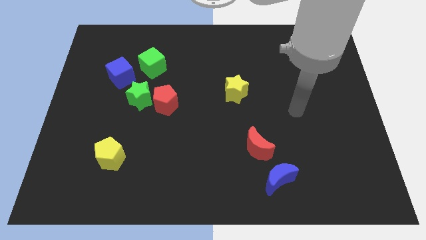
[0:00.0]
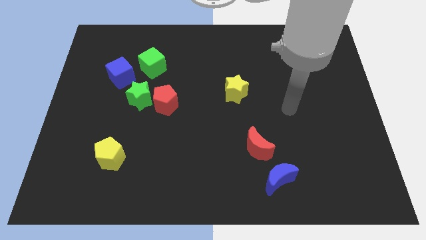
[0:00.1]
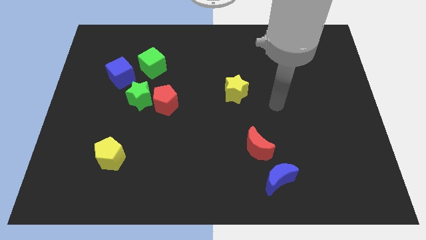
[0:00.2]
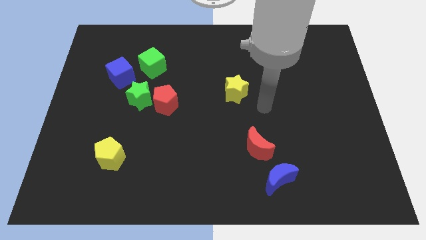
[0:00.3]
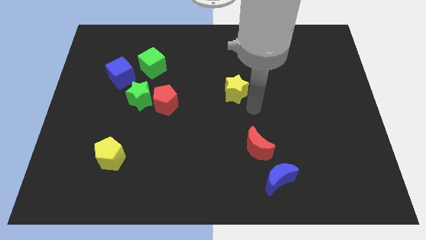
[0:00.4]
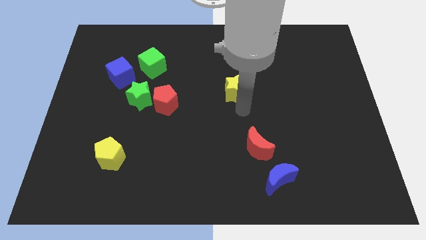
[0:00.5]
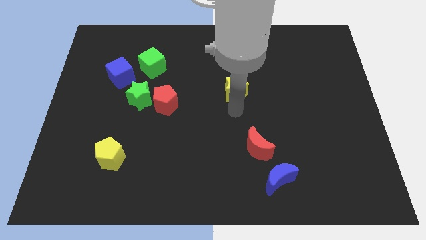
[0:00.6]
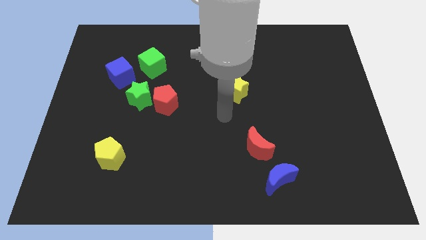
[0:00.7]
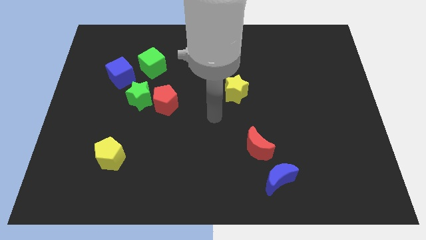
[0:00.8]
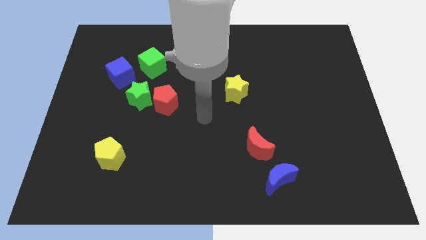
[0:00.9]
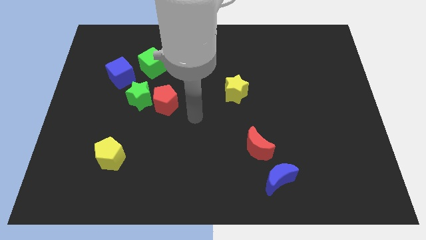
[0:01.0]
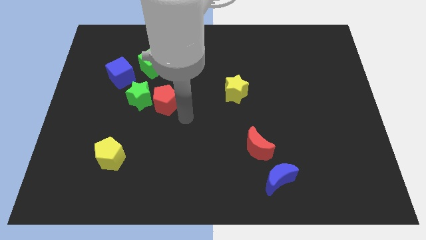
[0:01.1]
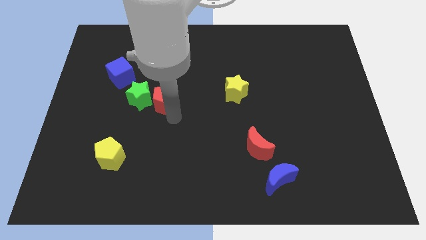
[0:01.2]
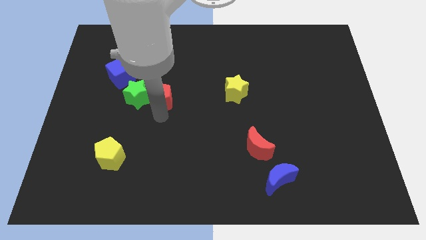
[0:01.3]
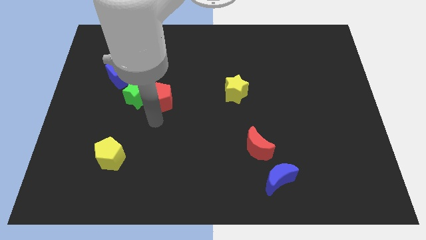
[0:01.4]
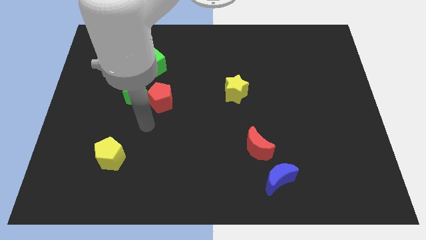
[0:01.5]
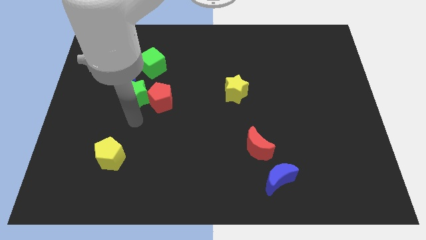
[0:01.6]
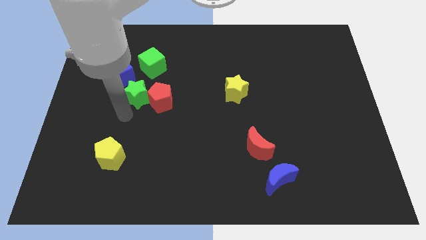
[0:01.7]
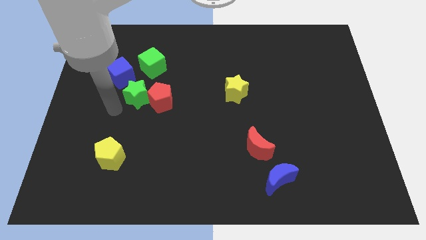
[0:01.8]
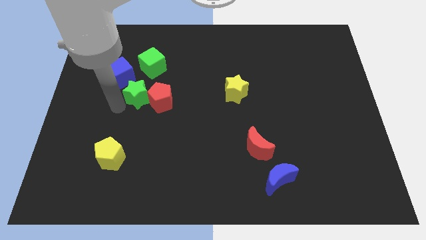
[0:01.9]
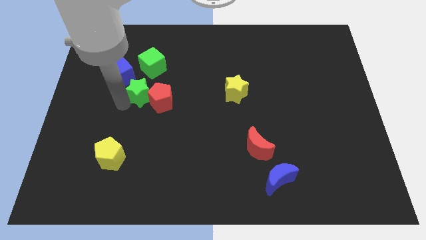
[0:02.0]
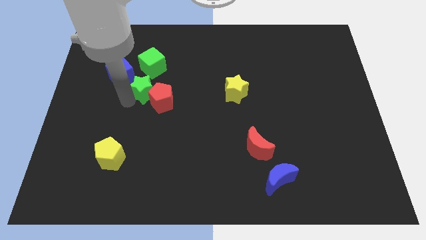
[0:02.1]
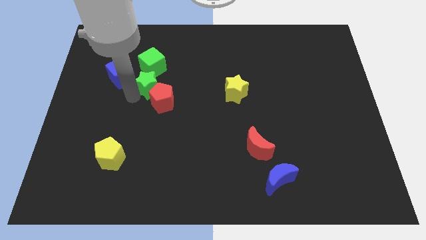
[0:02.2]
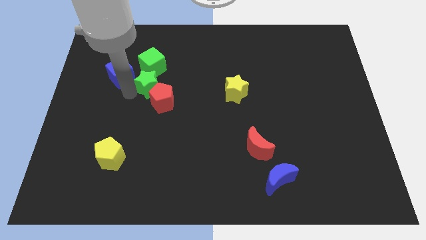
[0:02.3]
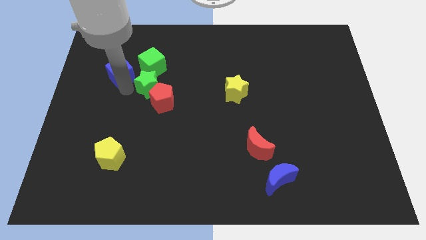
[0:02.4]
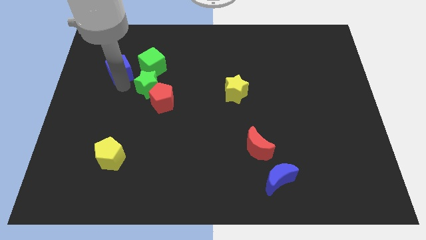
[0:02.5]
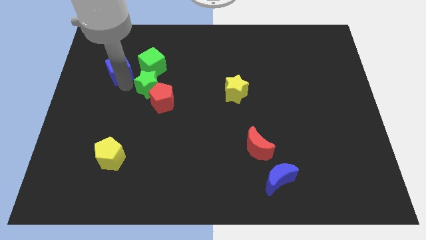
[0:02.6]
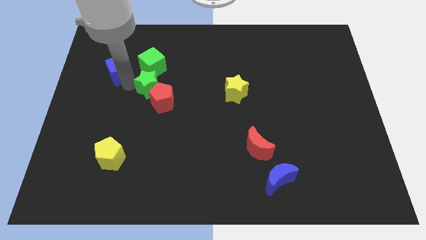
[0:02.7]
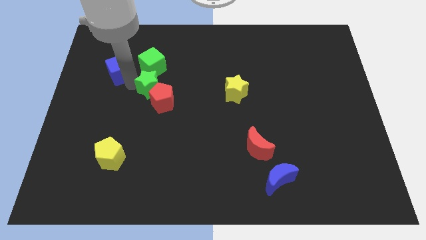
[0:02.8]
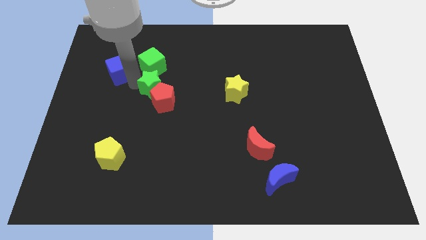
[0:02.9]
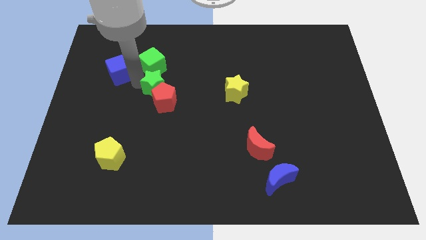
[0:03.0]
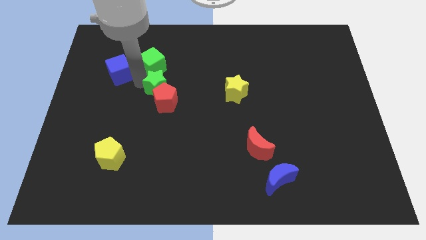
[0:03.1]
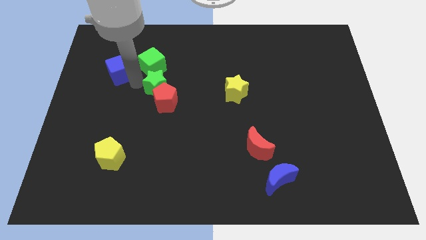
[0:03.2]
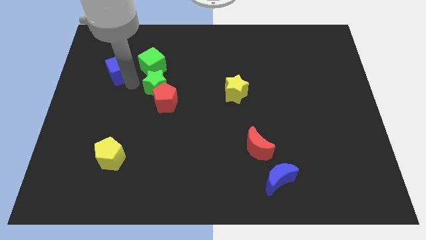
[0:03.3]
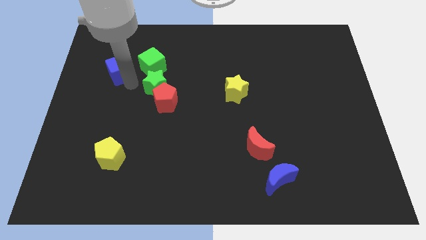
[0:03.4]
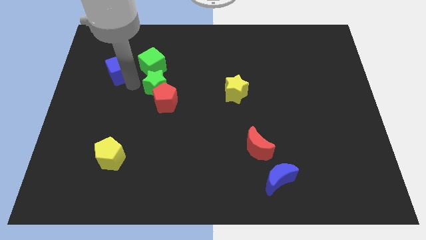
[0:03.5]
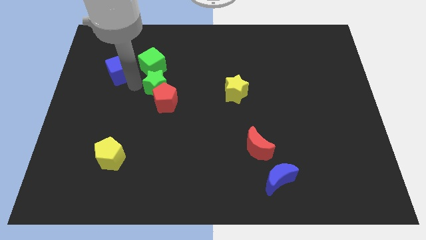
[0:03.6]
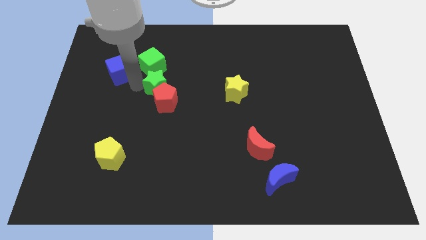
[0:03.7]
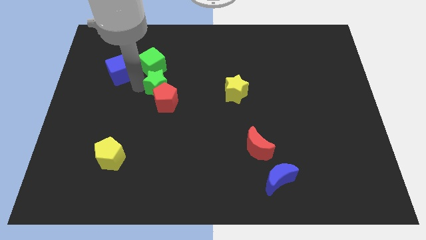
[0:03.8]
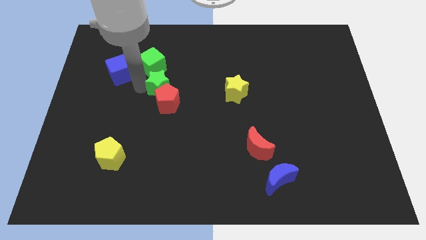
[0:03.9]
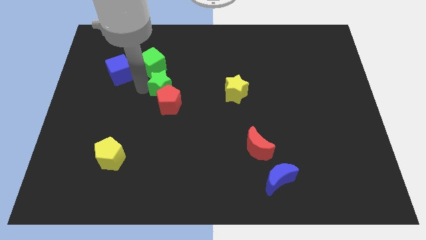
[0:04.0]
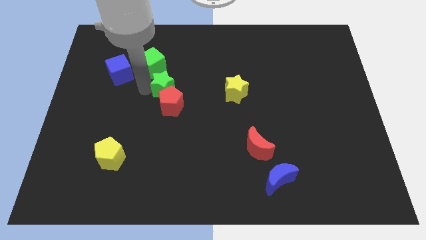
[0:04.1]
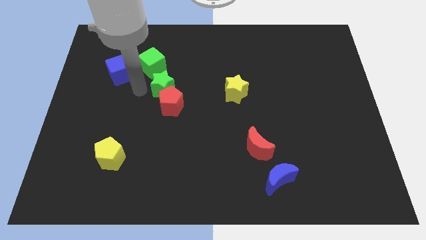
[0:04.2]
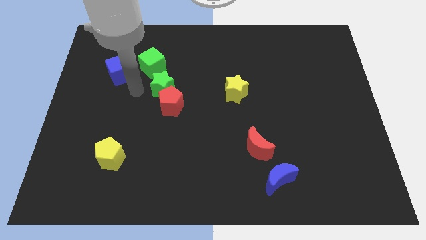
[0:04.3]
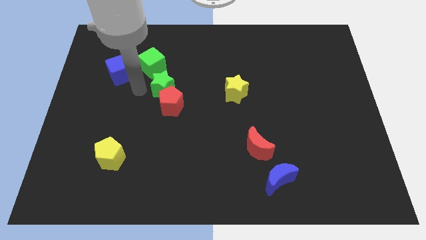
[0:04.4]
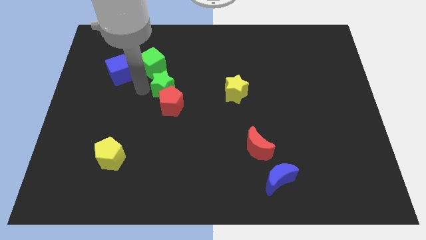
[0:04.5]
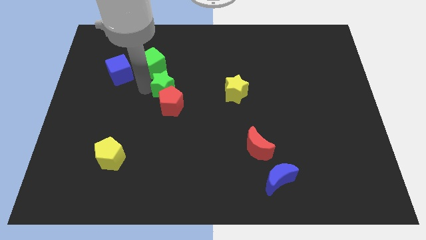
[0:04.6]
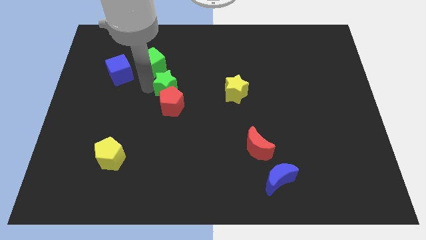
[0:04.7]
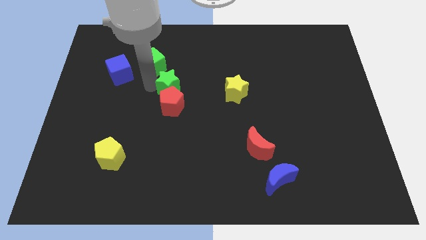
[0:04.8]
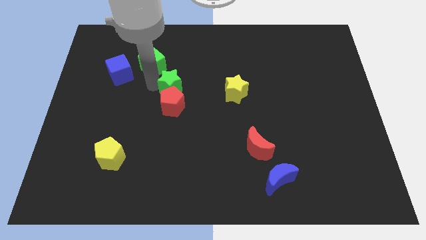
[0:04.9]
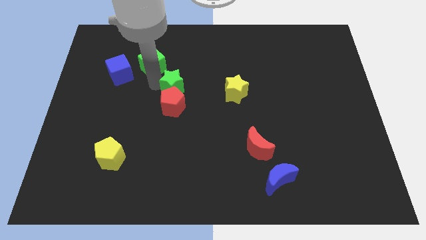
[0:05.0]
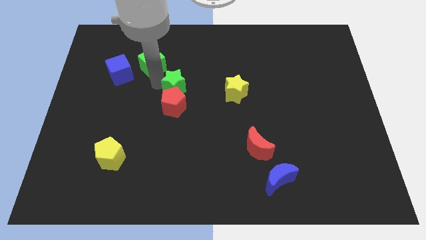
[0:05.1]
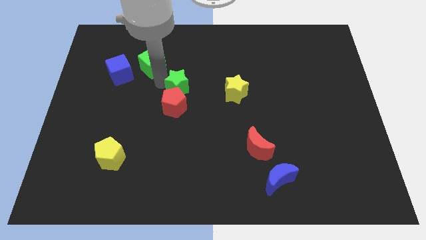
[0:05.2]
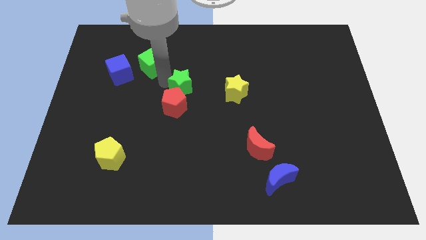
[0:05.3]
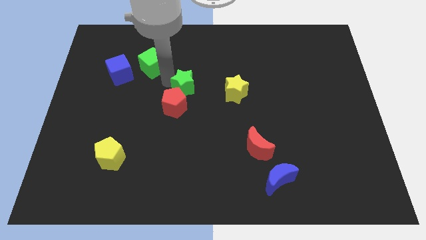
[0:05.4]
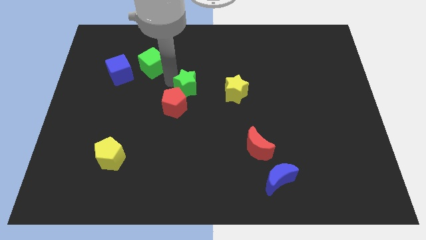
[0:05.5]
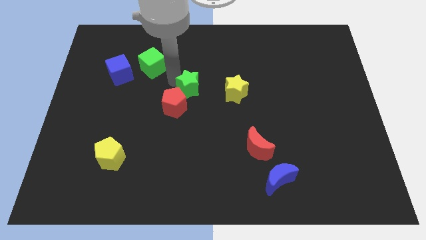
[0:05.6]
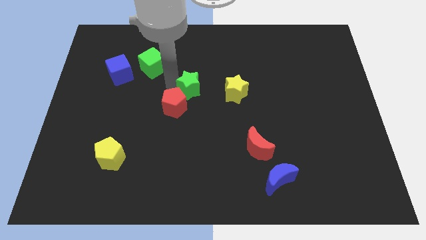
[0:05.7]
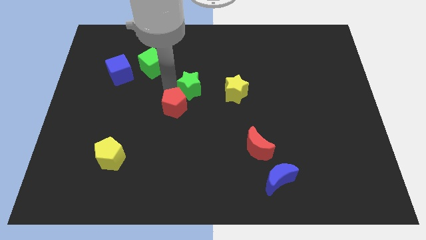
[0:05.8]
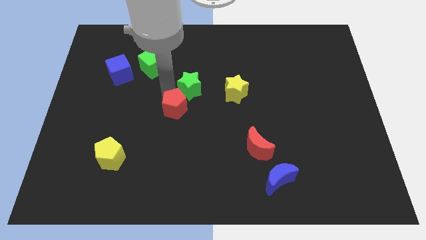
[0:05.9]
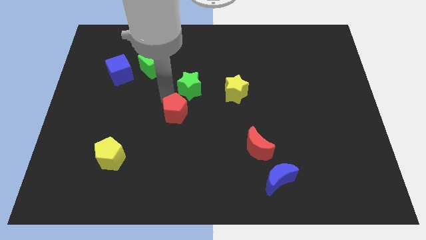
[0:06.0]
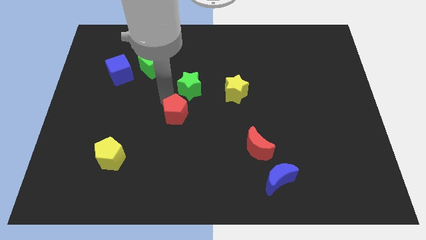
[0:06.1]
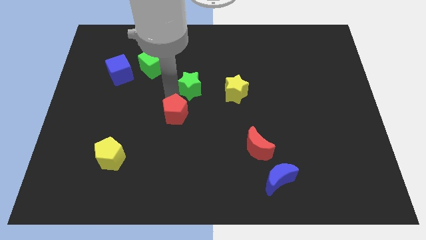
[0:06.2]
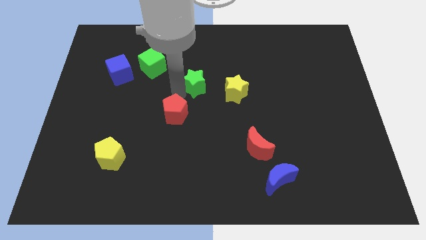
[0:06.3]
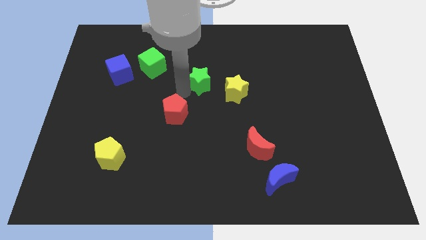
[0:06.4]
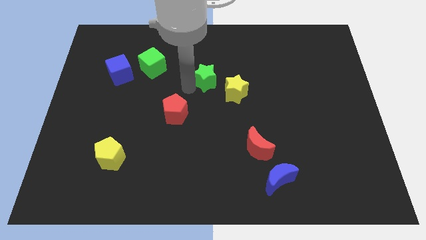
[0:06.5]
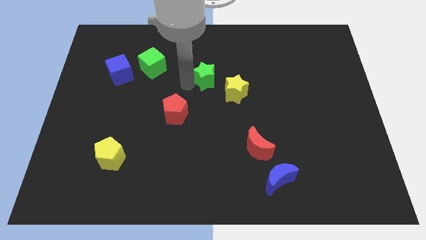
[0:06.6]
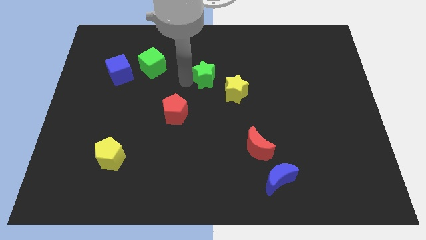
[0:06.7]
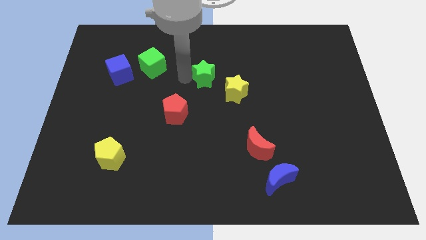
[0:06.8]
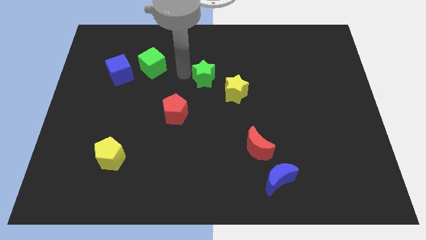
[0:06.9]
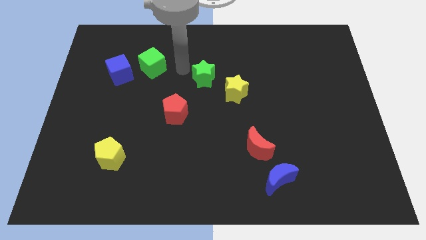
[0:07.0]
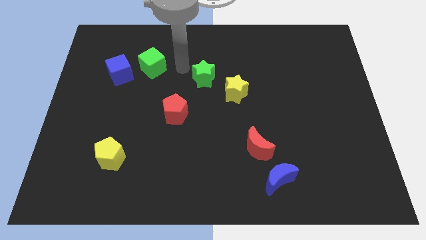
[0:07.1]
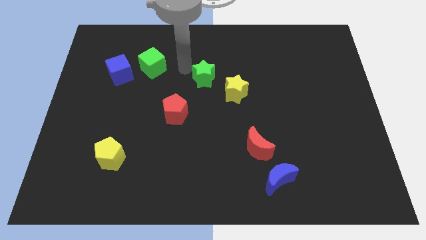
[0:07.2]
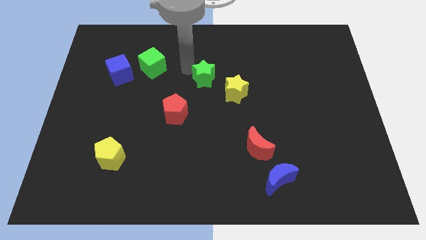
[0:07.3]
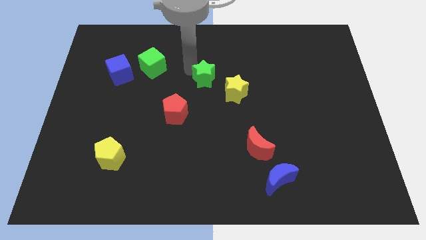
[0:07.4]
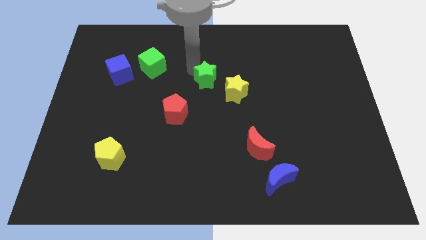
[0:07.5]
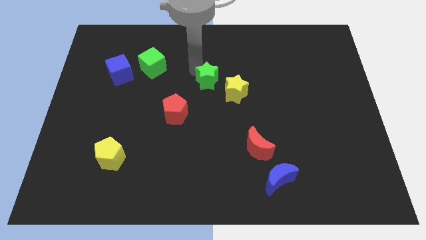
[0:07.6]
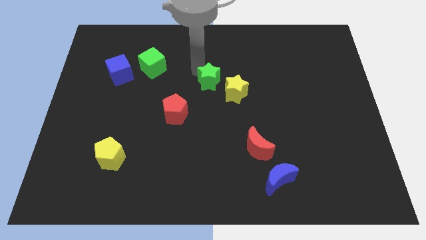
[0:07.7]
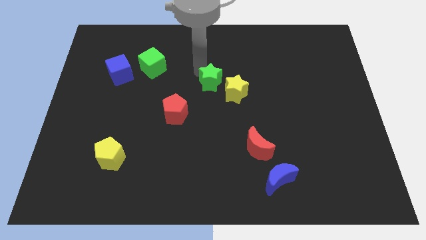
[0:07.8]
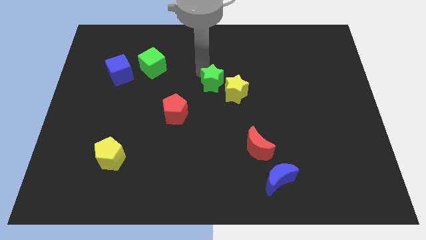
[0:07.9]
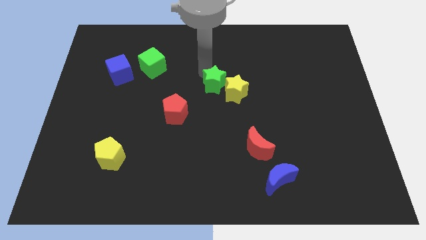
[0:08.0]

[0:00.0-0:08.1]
put the green star to the yellow star
